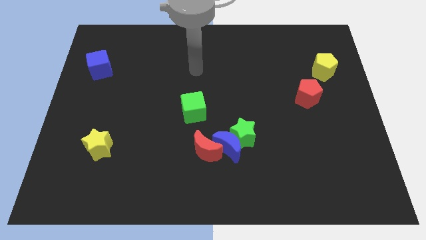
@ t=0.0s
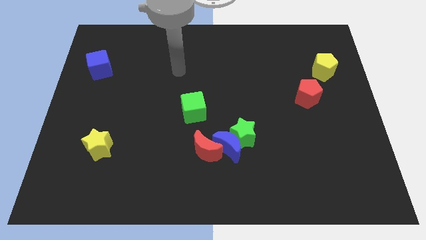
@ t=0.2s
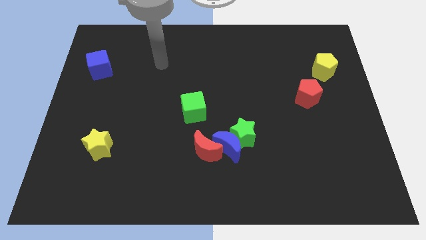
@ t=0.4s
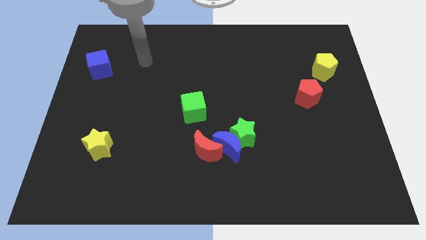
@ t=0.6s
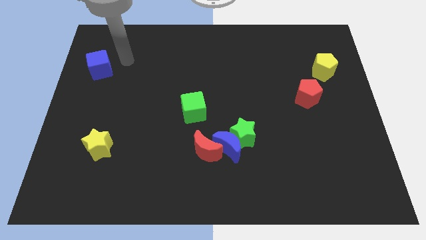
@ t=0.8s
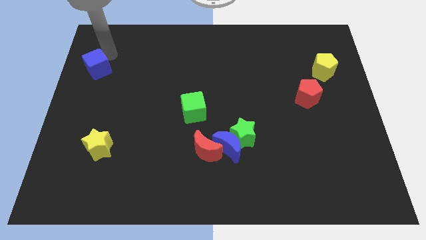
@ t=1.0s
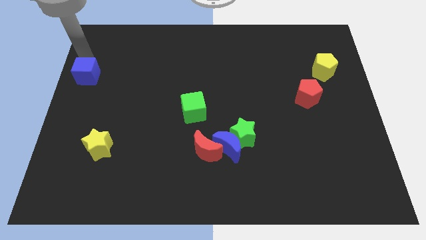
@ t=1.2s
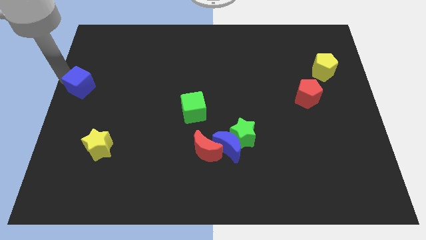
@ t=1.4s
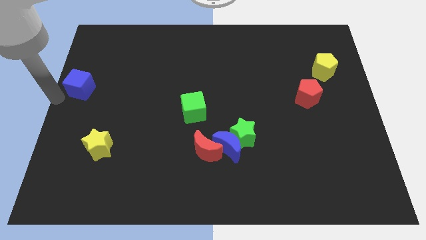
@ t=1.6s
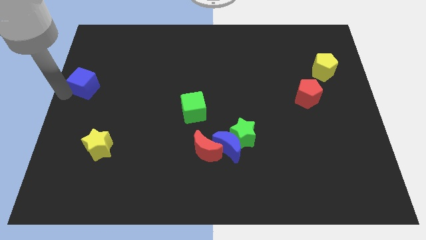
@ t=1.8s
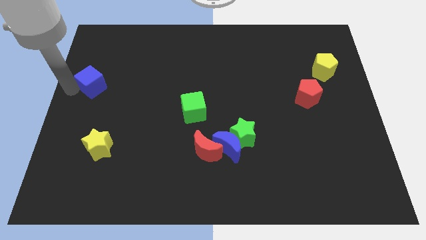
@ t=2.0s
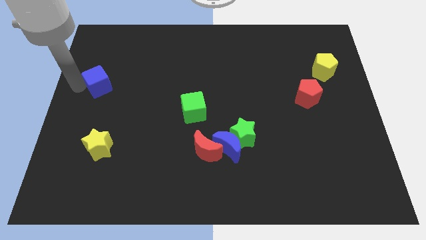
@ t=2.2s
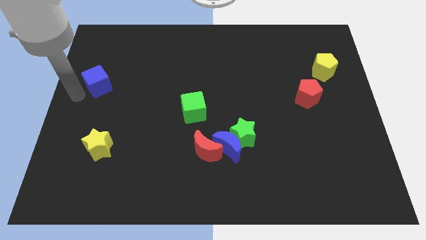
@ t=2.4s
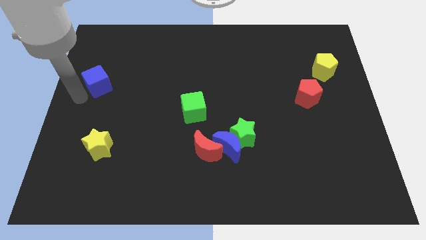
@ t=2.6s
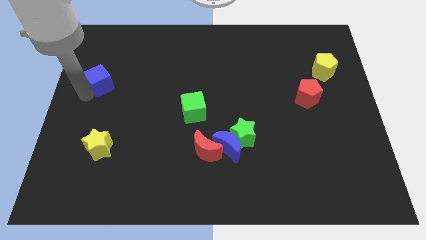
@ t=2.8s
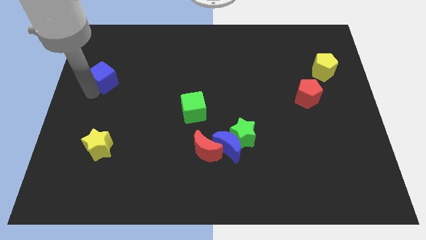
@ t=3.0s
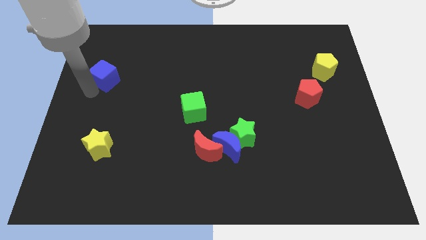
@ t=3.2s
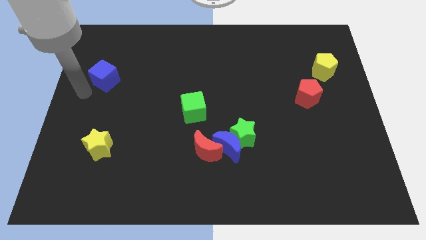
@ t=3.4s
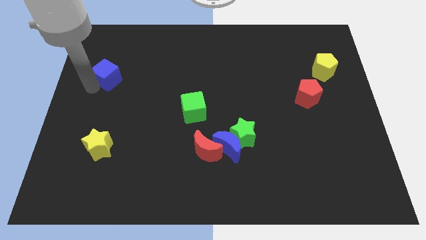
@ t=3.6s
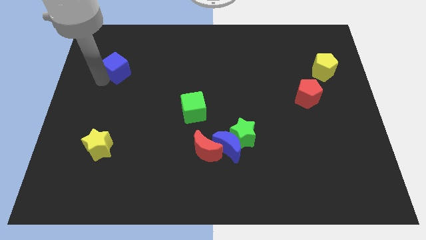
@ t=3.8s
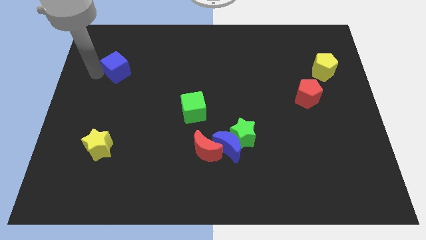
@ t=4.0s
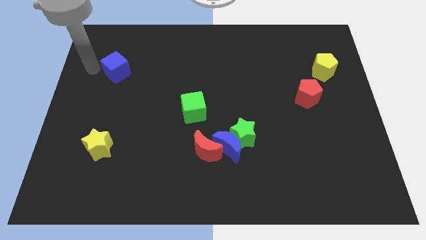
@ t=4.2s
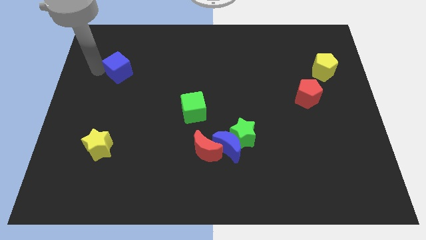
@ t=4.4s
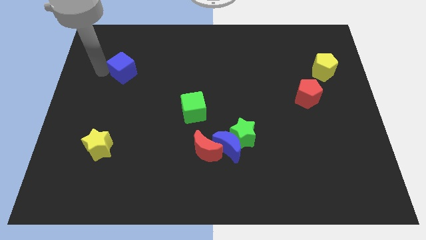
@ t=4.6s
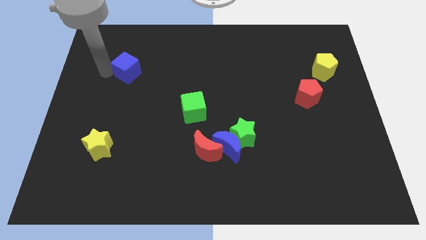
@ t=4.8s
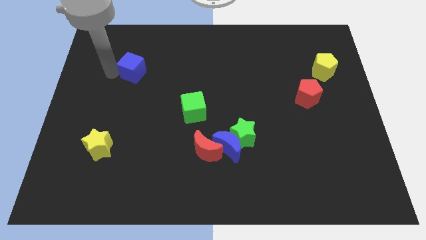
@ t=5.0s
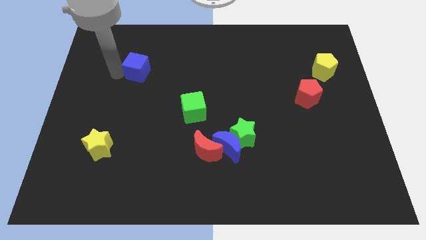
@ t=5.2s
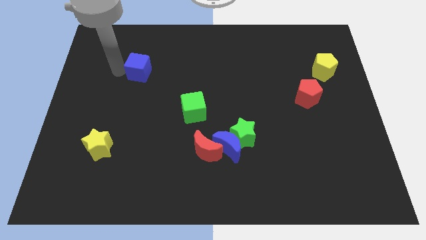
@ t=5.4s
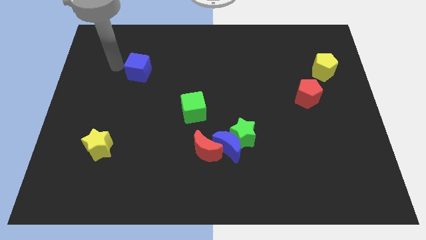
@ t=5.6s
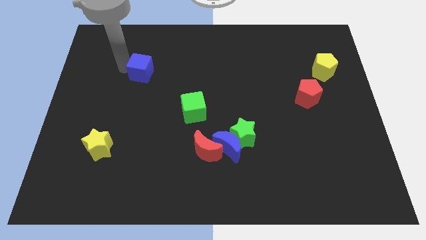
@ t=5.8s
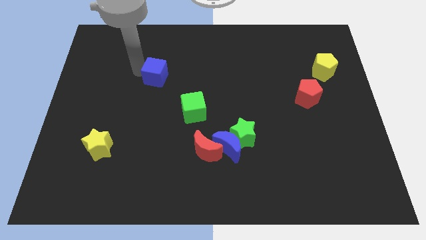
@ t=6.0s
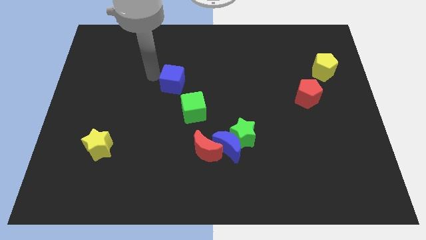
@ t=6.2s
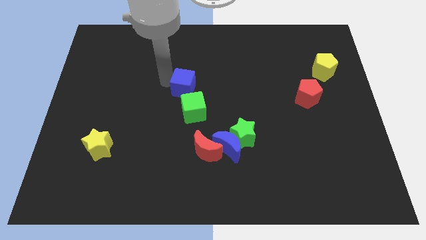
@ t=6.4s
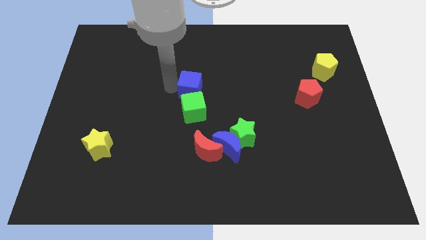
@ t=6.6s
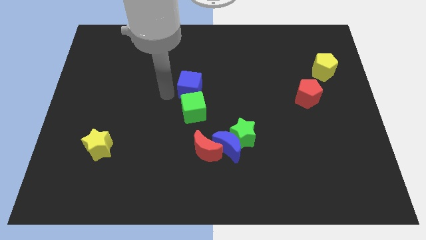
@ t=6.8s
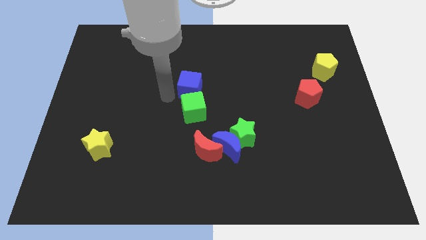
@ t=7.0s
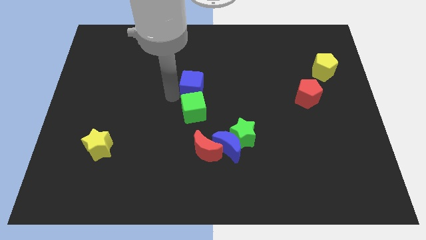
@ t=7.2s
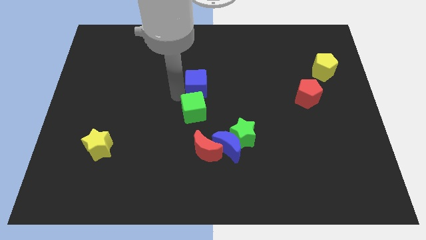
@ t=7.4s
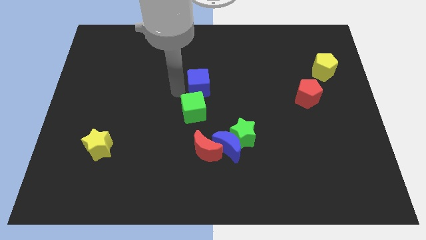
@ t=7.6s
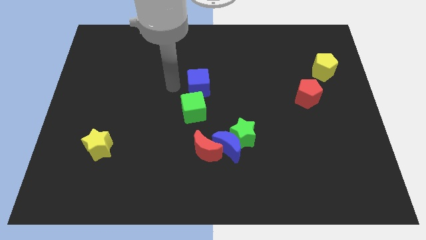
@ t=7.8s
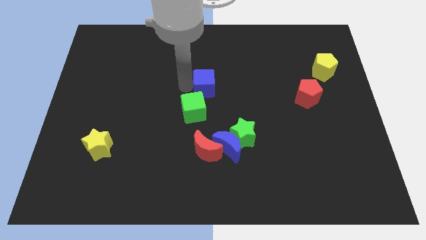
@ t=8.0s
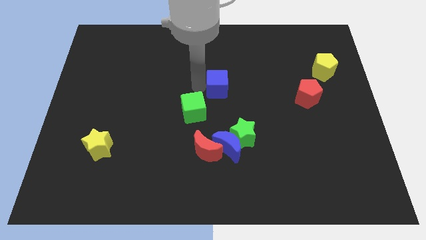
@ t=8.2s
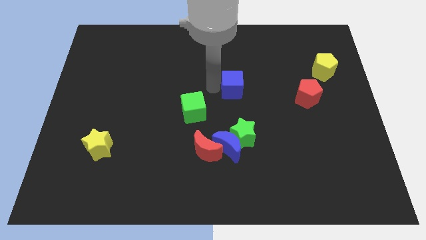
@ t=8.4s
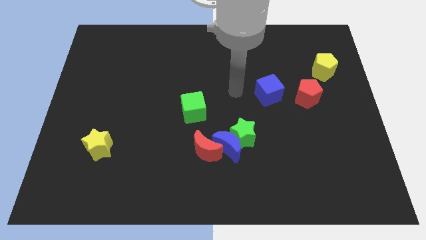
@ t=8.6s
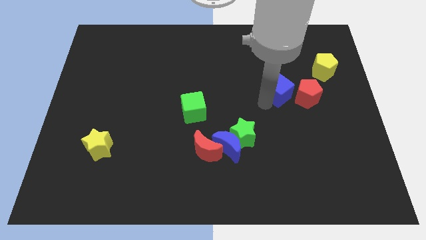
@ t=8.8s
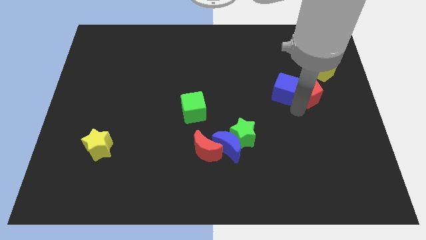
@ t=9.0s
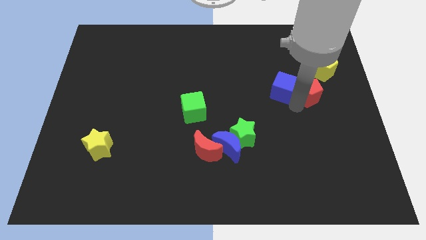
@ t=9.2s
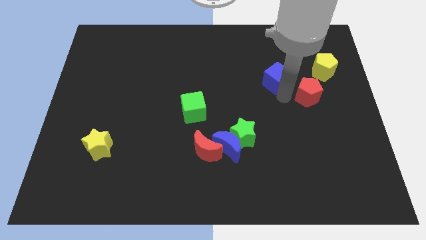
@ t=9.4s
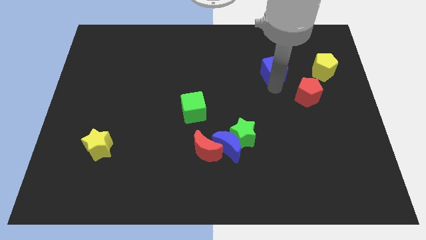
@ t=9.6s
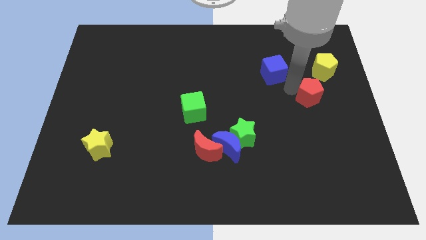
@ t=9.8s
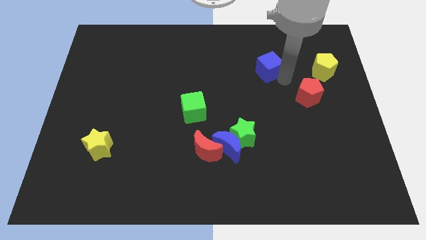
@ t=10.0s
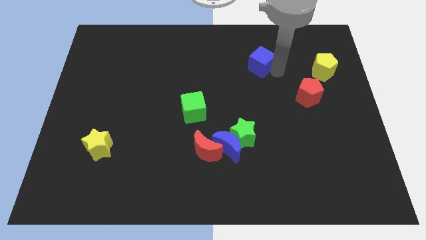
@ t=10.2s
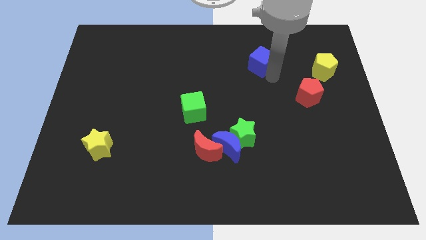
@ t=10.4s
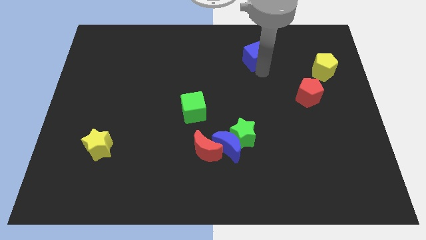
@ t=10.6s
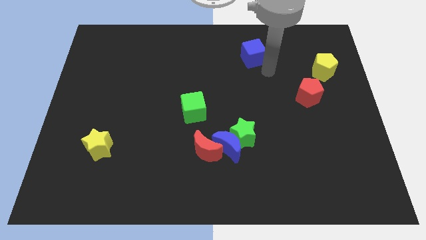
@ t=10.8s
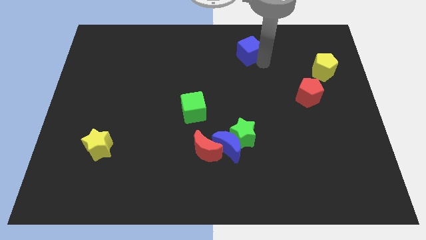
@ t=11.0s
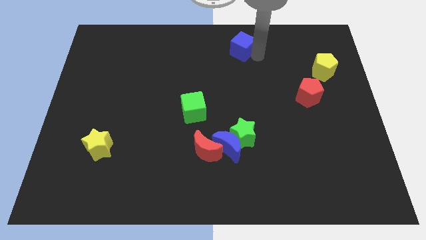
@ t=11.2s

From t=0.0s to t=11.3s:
push the blue cube to the top side

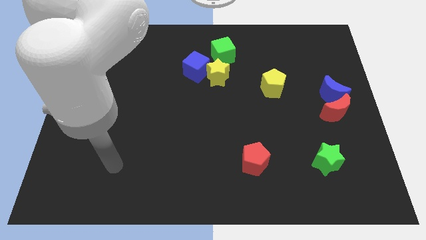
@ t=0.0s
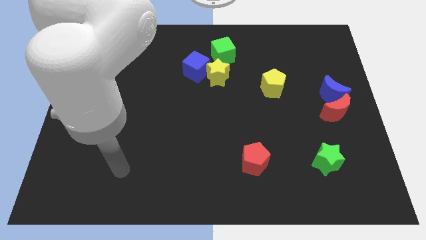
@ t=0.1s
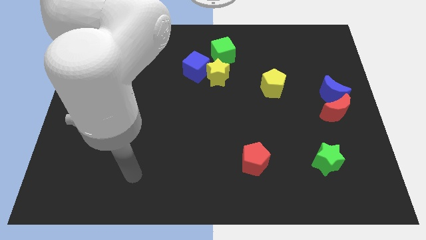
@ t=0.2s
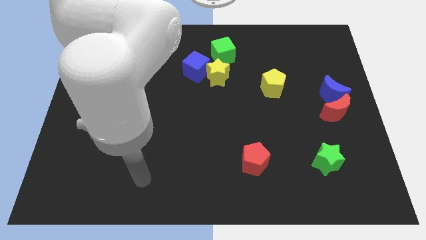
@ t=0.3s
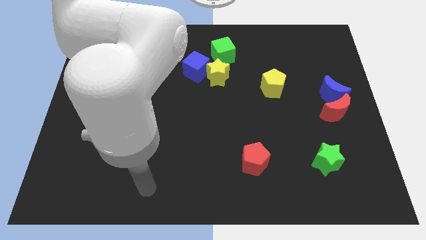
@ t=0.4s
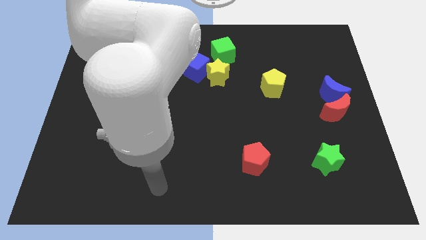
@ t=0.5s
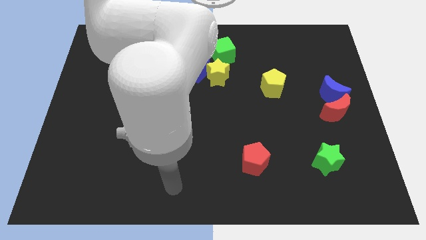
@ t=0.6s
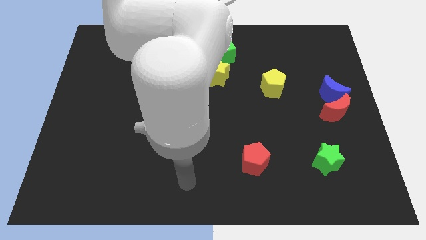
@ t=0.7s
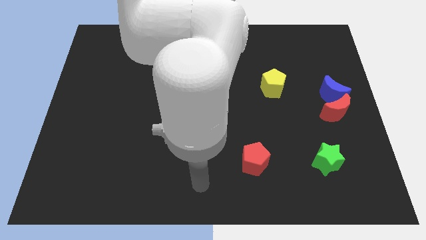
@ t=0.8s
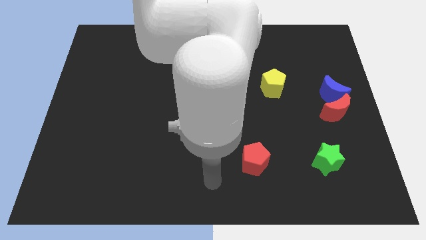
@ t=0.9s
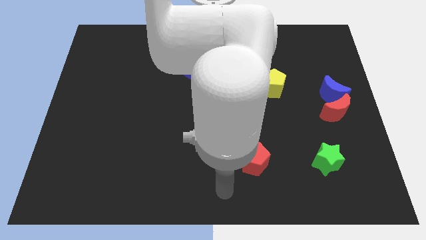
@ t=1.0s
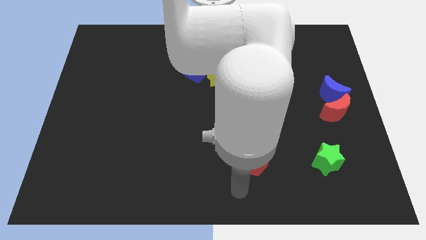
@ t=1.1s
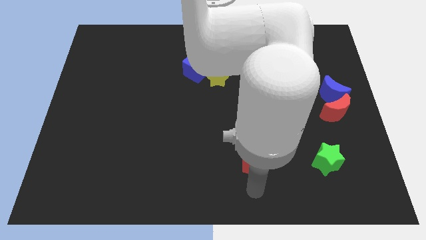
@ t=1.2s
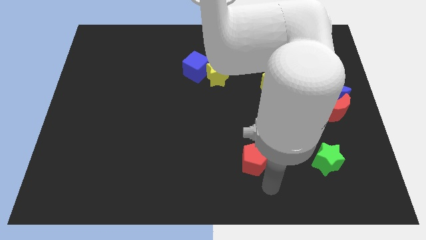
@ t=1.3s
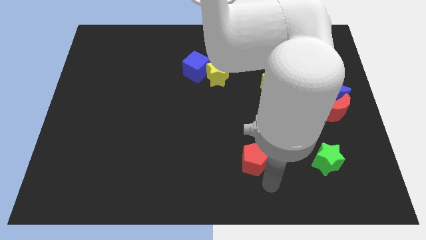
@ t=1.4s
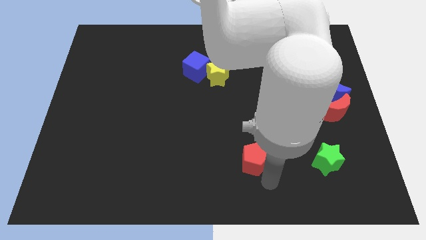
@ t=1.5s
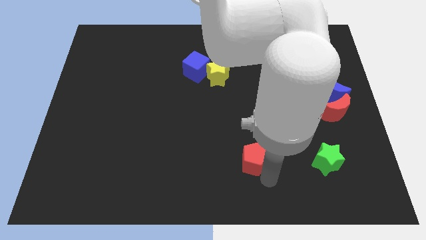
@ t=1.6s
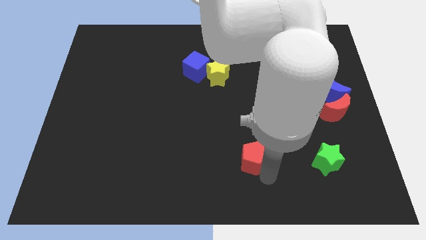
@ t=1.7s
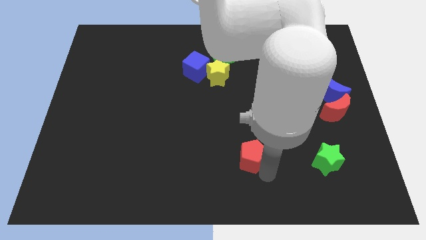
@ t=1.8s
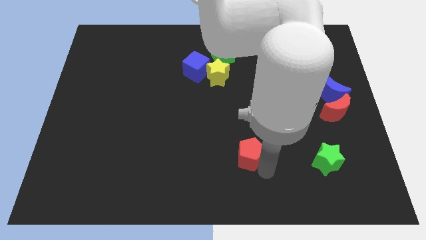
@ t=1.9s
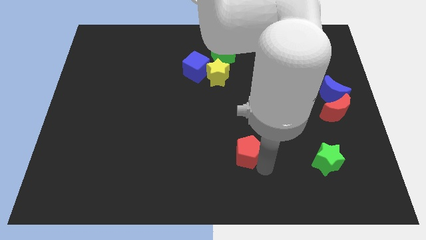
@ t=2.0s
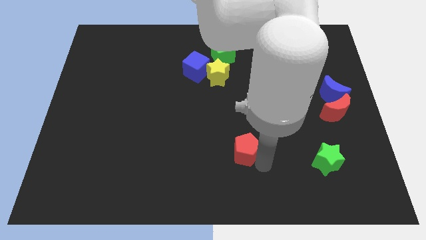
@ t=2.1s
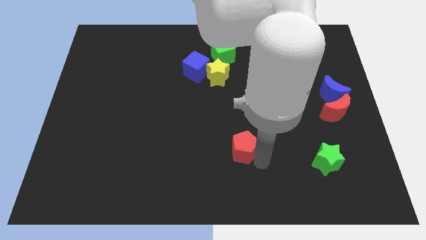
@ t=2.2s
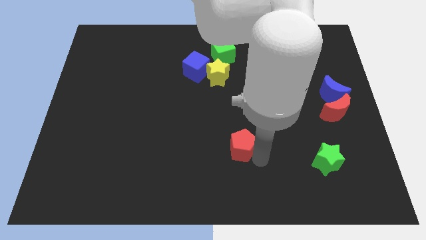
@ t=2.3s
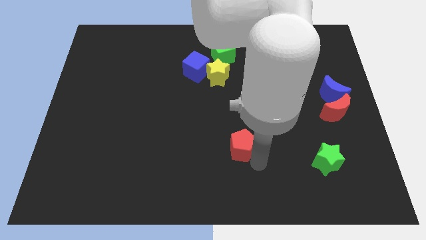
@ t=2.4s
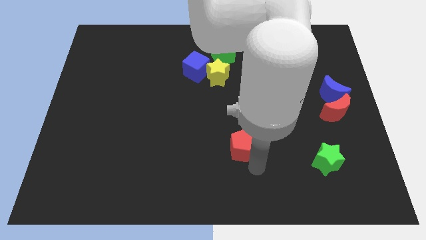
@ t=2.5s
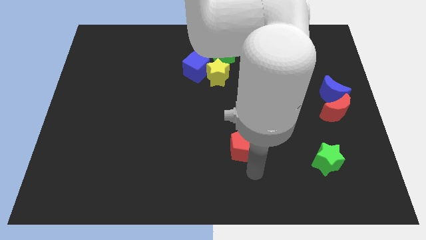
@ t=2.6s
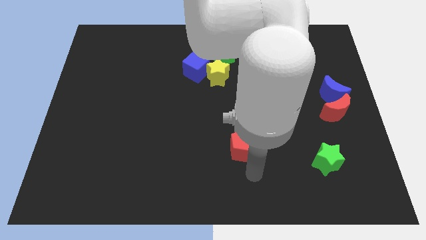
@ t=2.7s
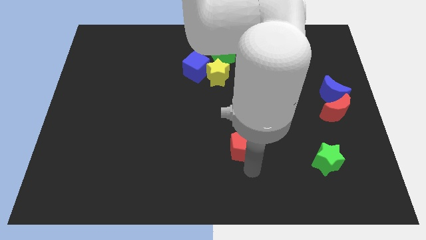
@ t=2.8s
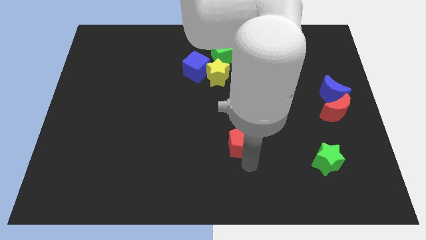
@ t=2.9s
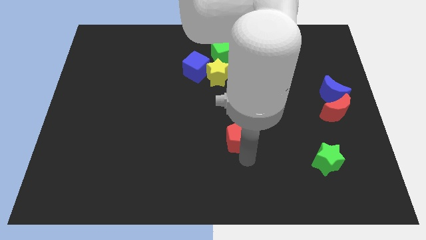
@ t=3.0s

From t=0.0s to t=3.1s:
slide the red pentagon to the middle
